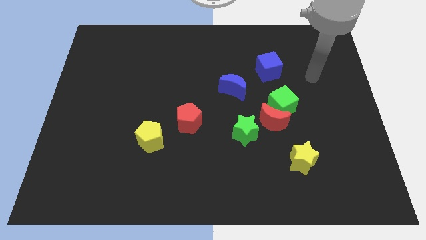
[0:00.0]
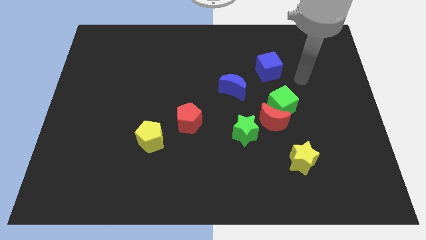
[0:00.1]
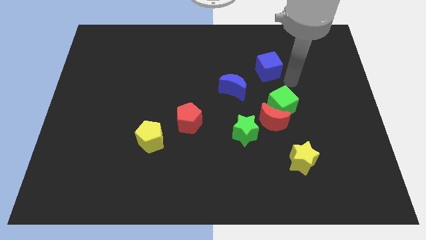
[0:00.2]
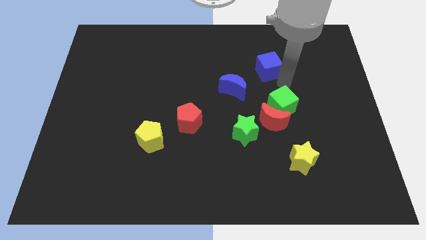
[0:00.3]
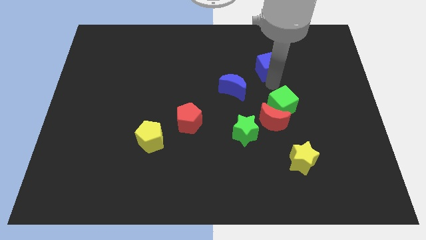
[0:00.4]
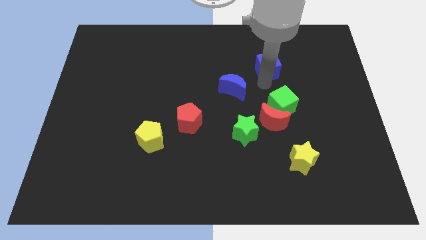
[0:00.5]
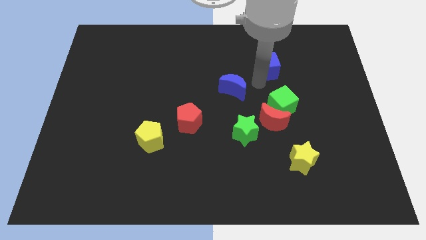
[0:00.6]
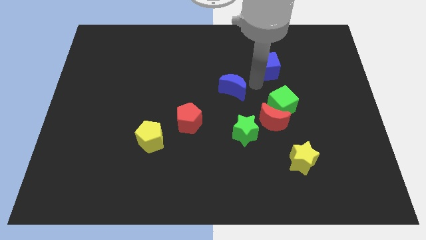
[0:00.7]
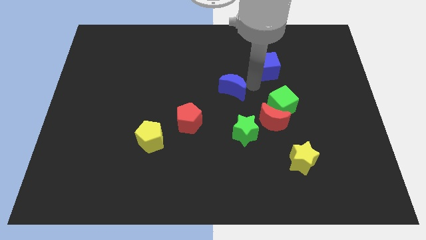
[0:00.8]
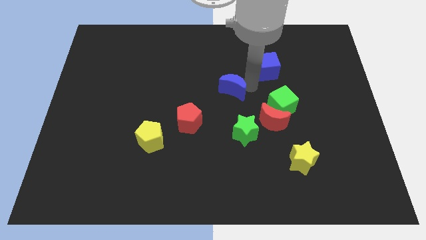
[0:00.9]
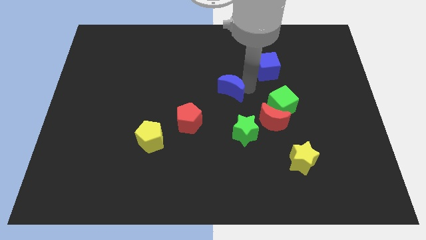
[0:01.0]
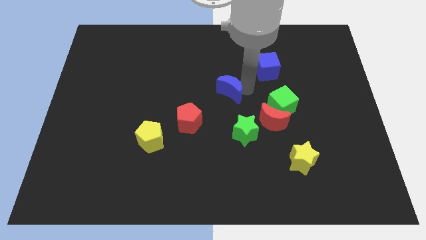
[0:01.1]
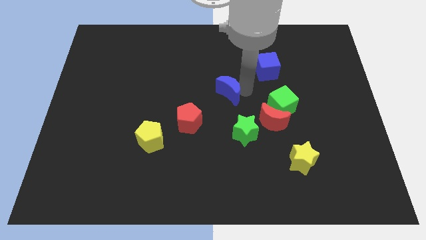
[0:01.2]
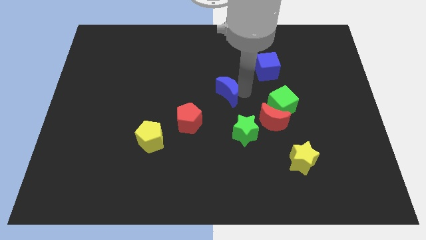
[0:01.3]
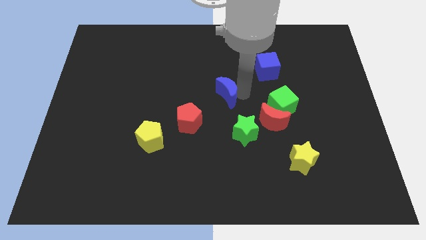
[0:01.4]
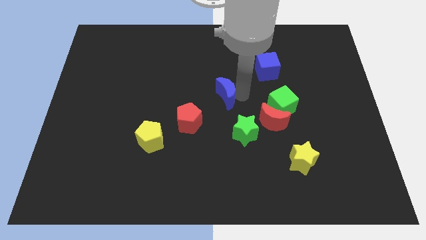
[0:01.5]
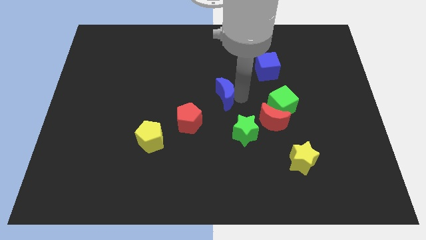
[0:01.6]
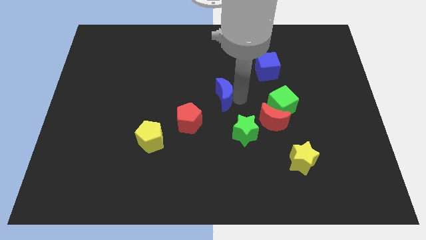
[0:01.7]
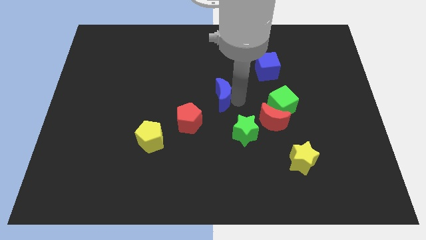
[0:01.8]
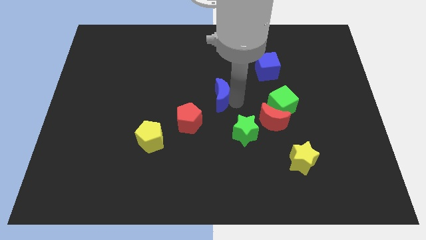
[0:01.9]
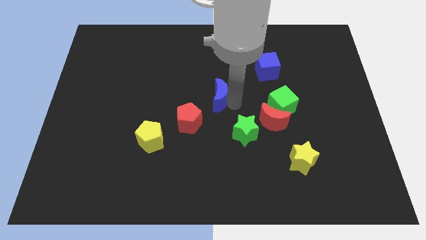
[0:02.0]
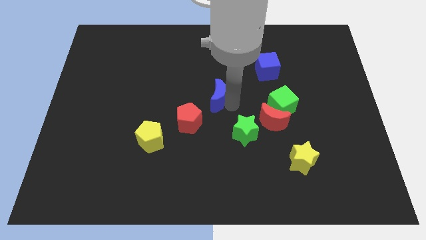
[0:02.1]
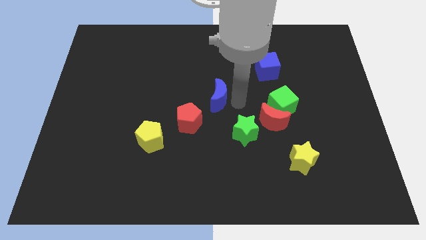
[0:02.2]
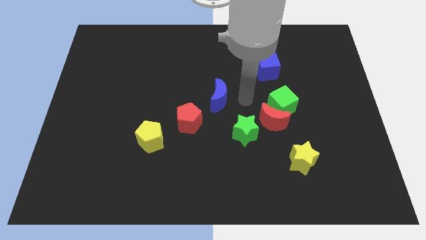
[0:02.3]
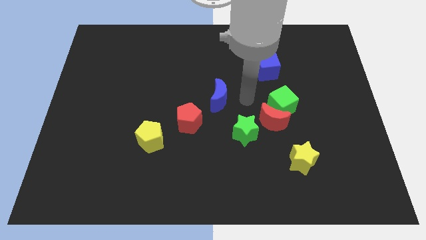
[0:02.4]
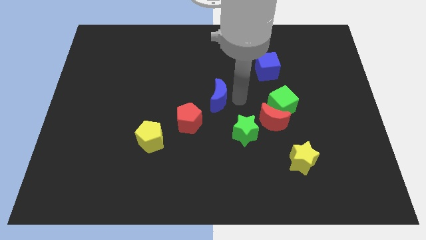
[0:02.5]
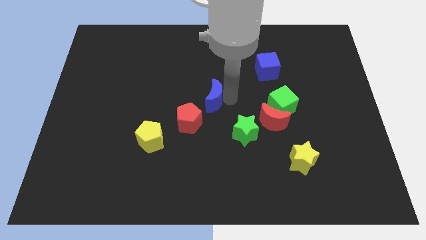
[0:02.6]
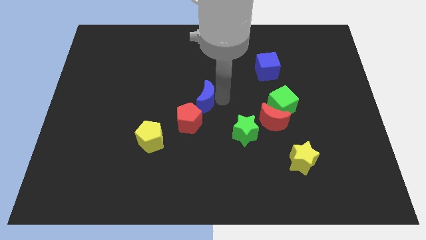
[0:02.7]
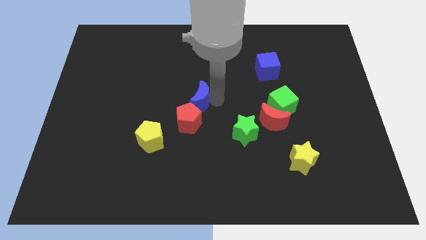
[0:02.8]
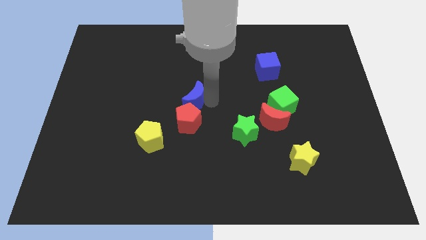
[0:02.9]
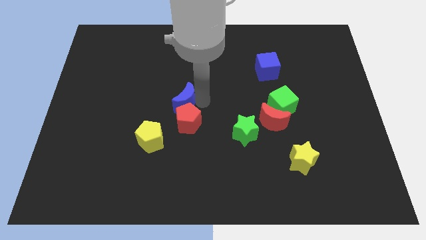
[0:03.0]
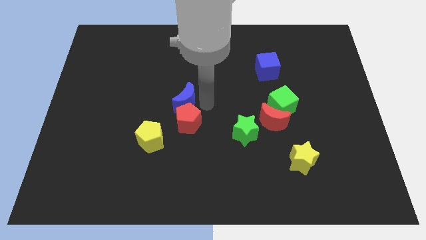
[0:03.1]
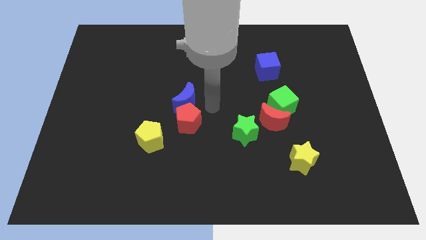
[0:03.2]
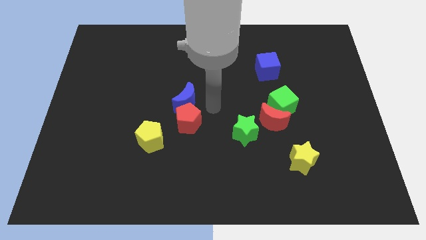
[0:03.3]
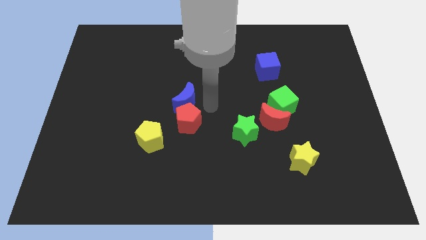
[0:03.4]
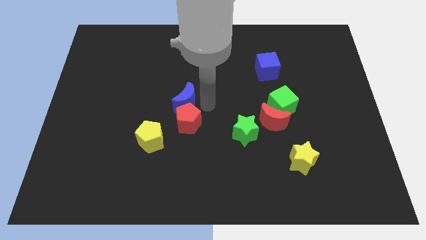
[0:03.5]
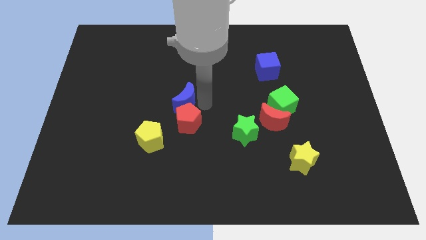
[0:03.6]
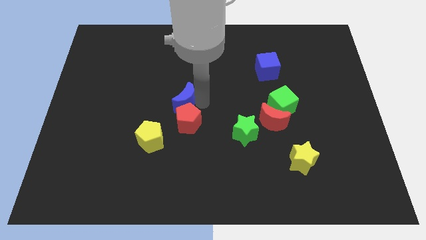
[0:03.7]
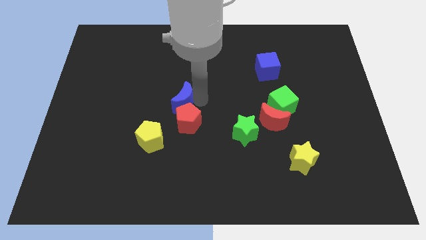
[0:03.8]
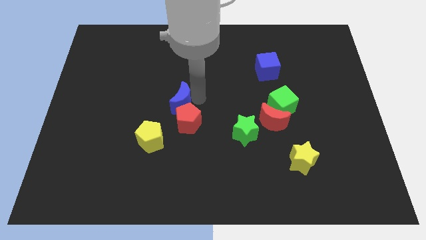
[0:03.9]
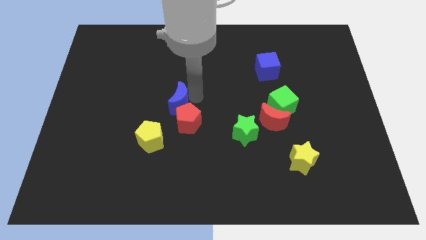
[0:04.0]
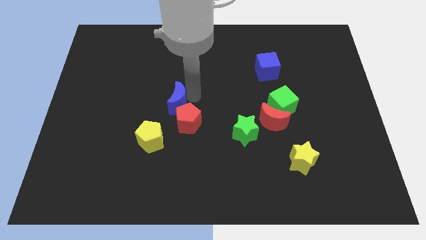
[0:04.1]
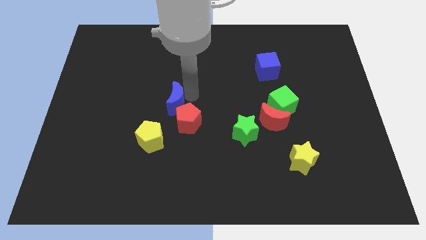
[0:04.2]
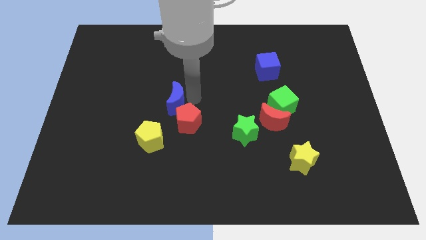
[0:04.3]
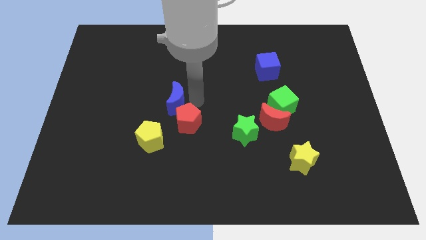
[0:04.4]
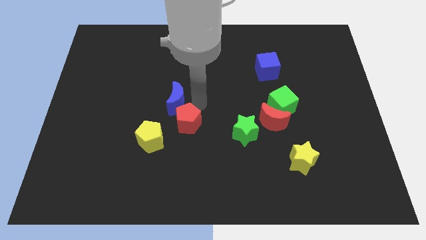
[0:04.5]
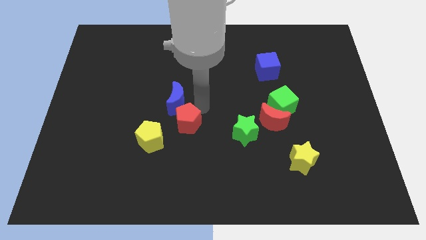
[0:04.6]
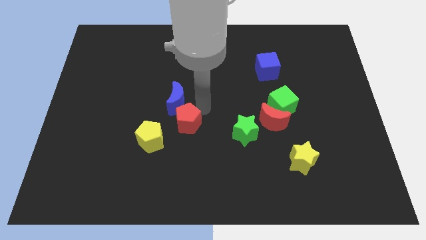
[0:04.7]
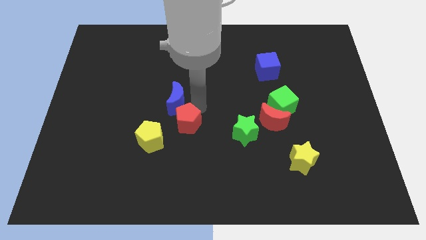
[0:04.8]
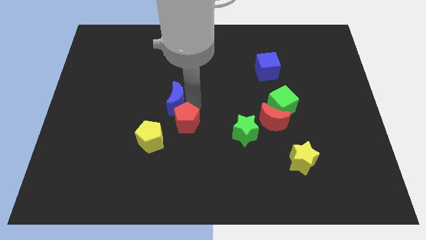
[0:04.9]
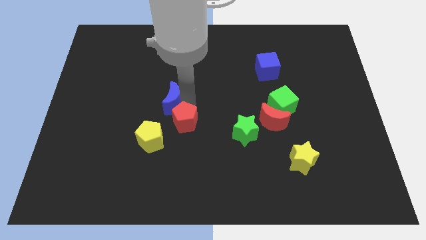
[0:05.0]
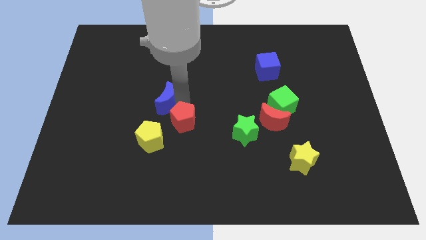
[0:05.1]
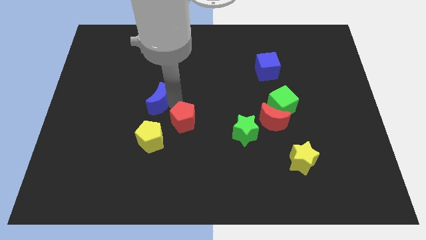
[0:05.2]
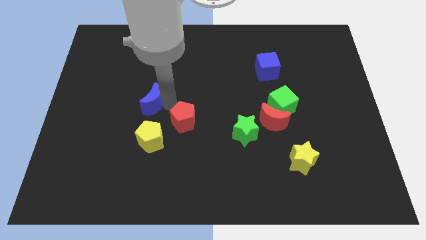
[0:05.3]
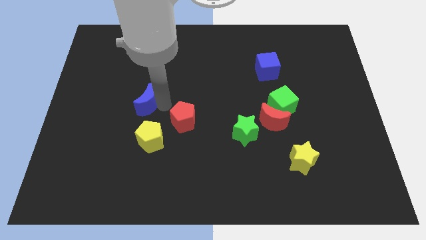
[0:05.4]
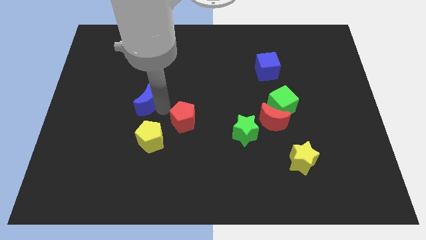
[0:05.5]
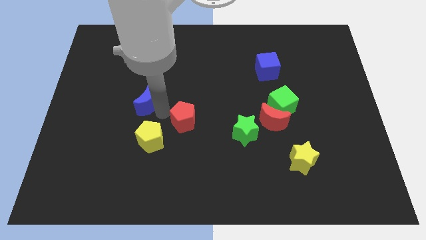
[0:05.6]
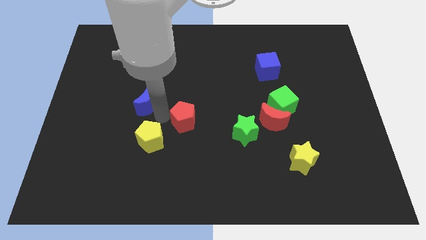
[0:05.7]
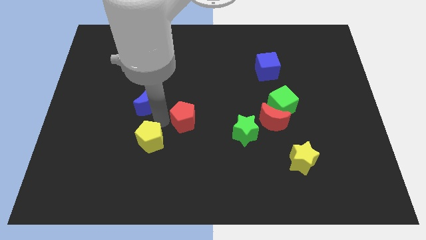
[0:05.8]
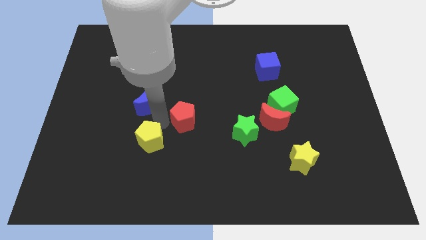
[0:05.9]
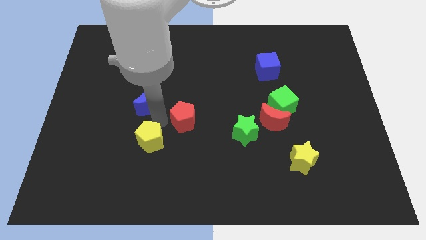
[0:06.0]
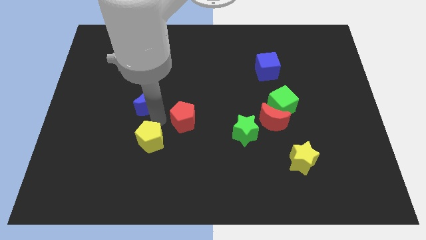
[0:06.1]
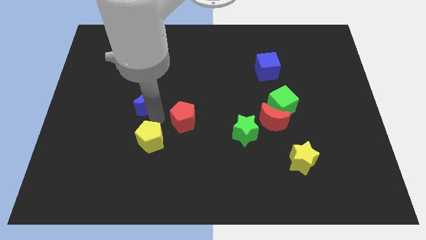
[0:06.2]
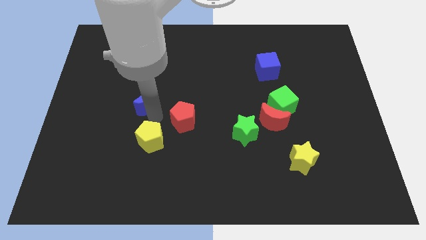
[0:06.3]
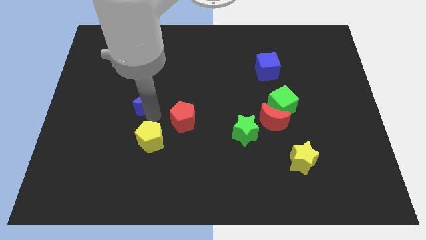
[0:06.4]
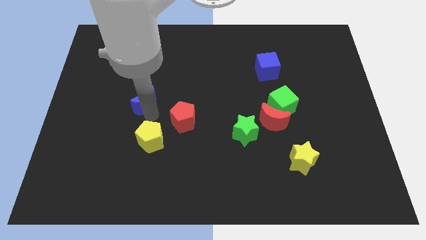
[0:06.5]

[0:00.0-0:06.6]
slide the blue moon left

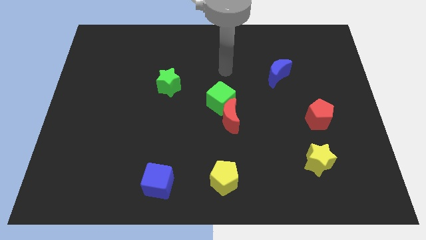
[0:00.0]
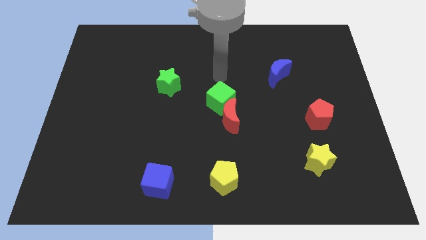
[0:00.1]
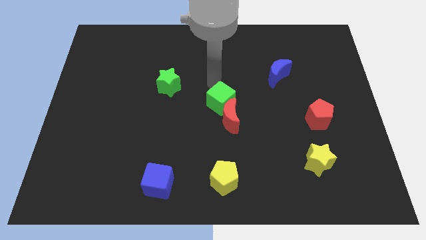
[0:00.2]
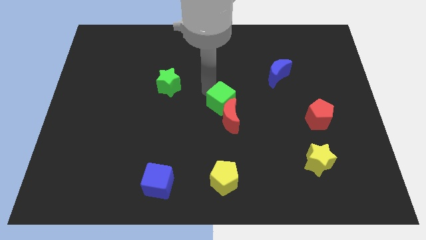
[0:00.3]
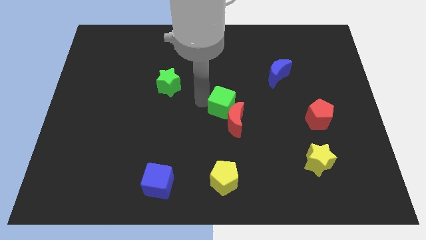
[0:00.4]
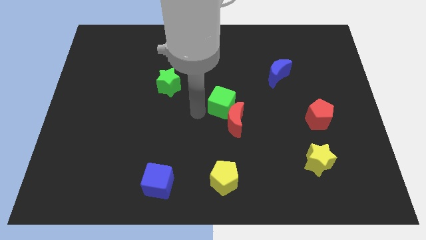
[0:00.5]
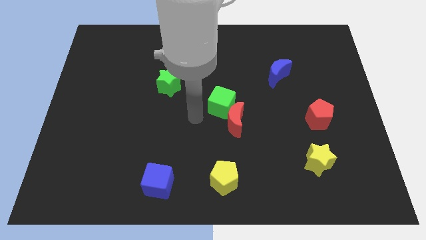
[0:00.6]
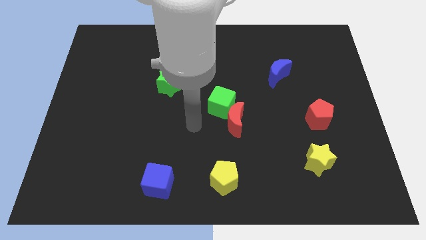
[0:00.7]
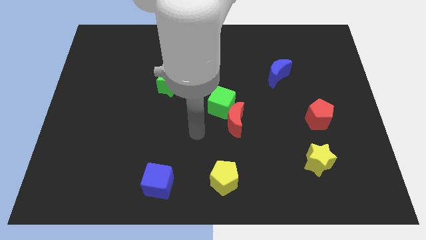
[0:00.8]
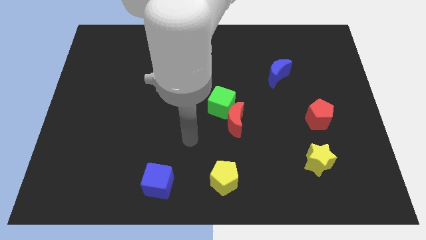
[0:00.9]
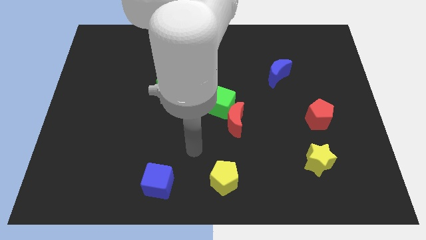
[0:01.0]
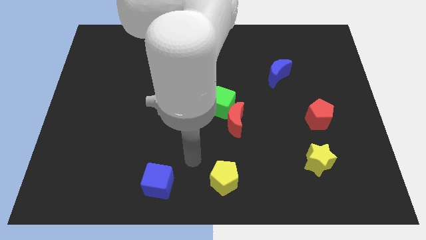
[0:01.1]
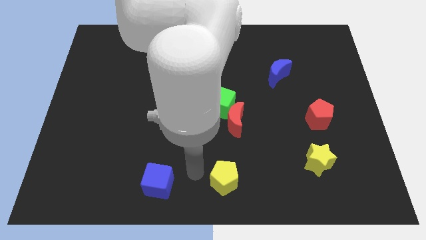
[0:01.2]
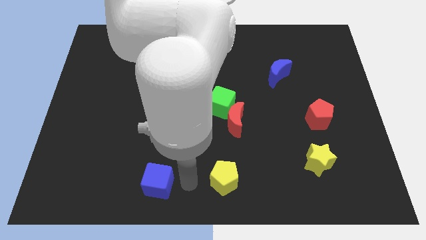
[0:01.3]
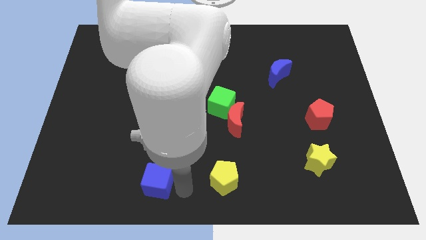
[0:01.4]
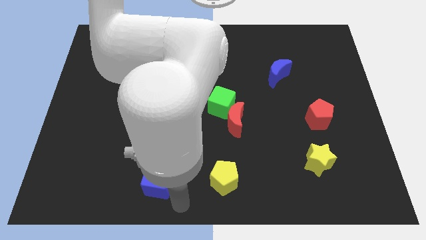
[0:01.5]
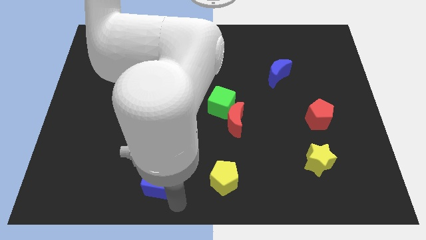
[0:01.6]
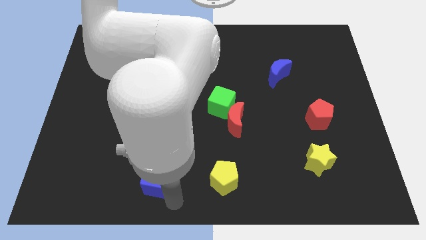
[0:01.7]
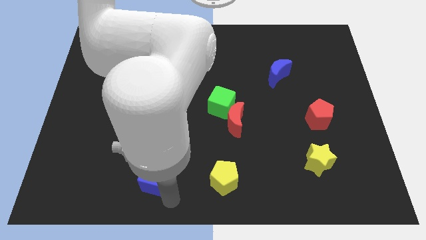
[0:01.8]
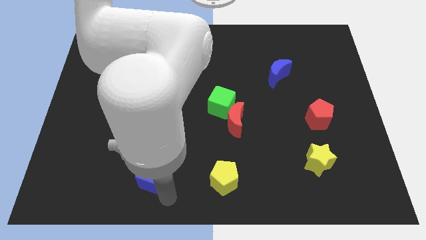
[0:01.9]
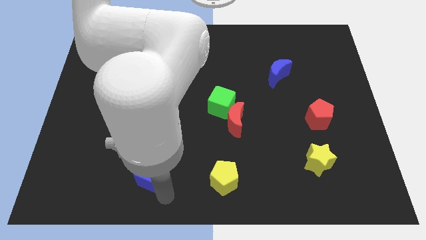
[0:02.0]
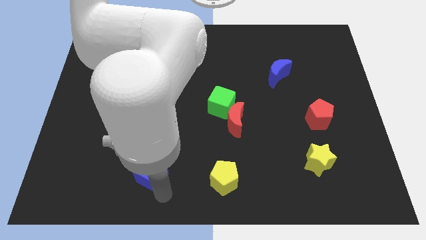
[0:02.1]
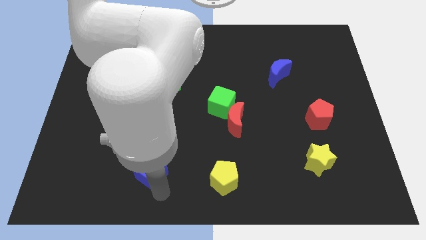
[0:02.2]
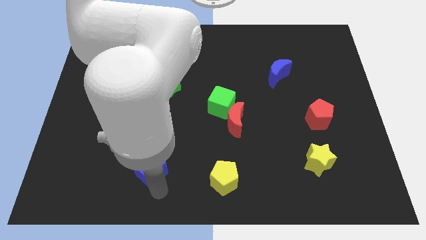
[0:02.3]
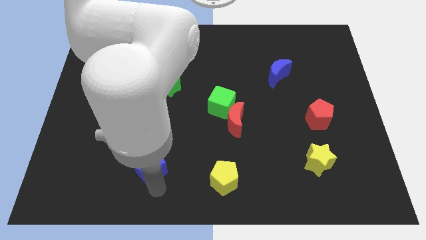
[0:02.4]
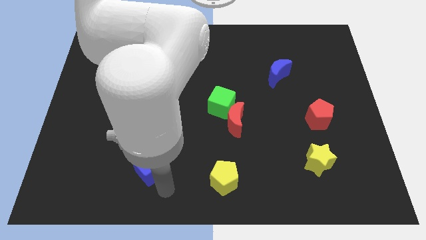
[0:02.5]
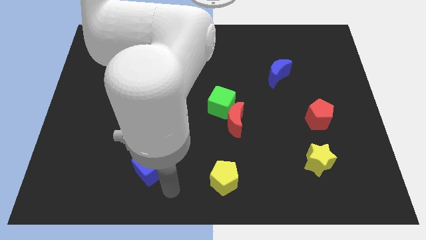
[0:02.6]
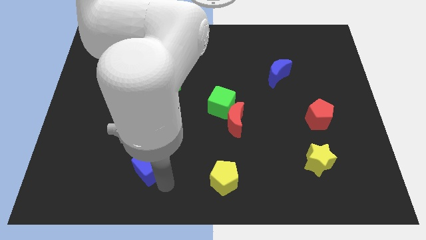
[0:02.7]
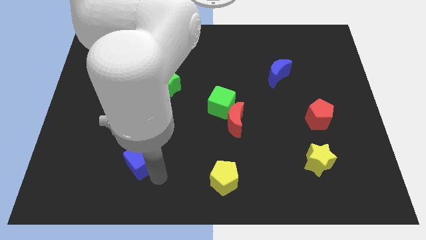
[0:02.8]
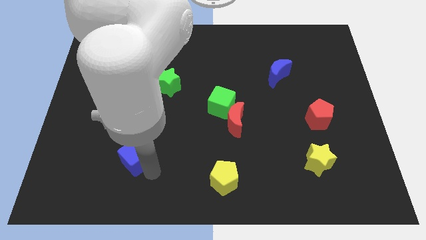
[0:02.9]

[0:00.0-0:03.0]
slide the blue cube upwards and left diagonally slightly
